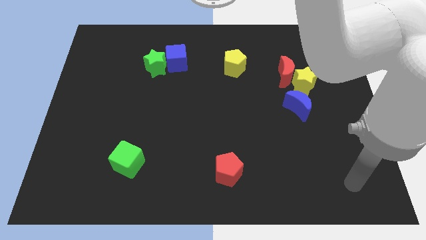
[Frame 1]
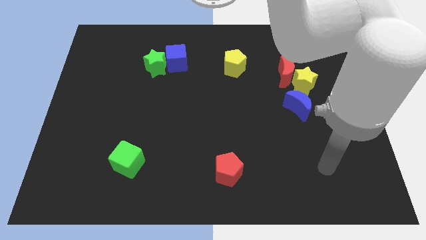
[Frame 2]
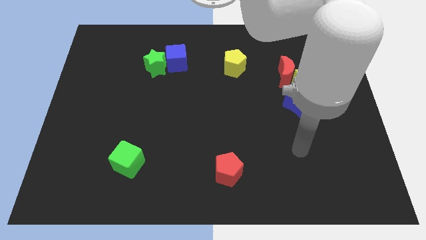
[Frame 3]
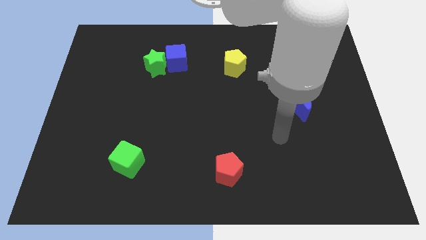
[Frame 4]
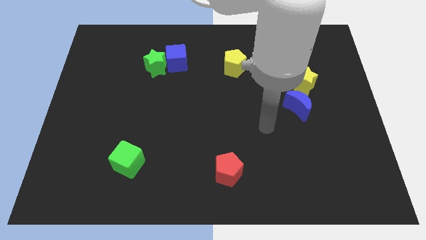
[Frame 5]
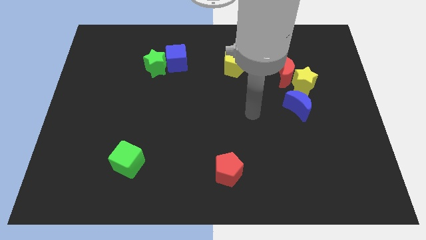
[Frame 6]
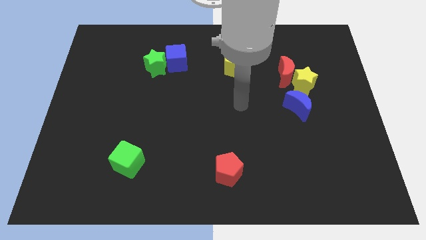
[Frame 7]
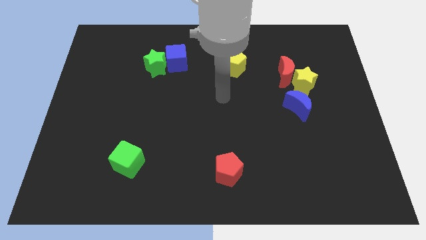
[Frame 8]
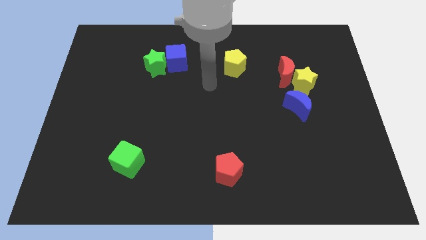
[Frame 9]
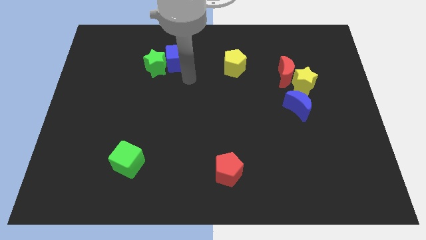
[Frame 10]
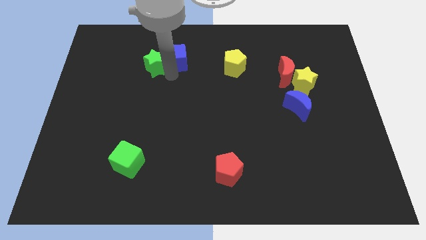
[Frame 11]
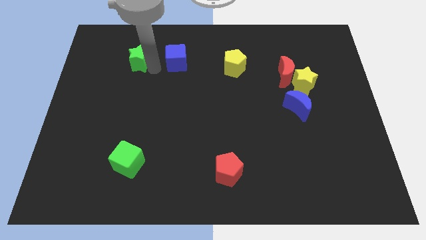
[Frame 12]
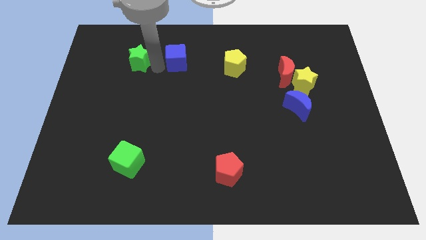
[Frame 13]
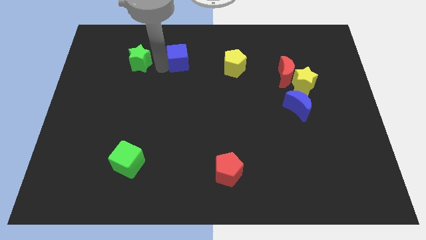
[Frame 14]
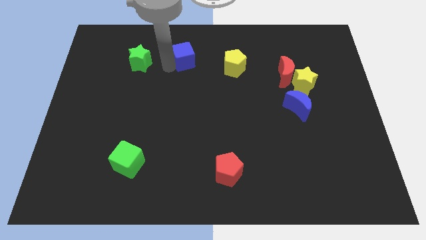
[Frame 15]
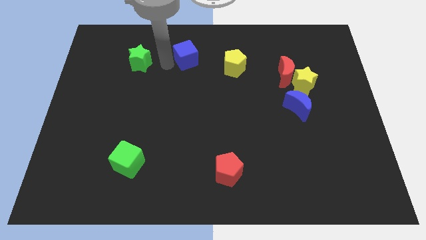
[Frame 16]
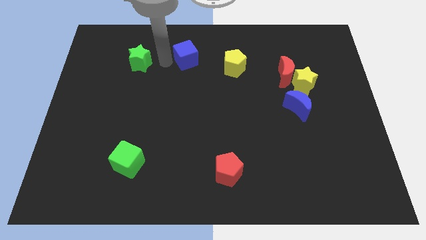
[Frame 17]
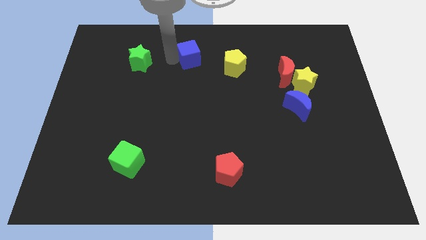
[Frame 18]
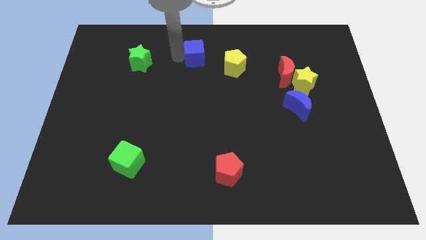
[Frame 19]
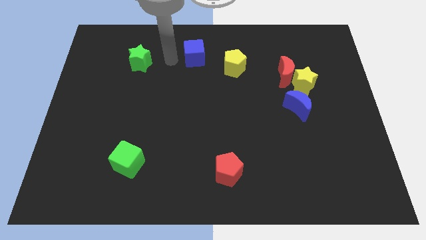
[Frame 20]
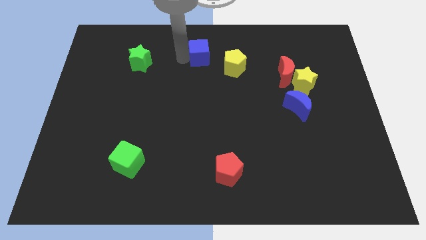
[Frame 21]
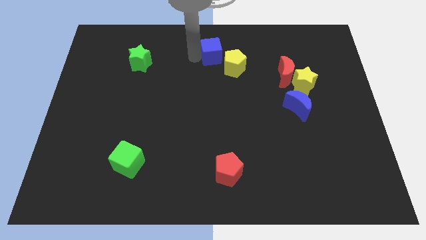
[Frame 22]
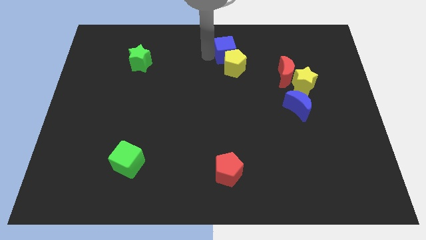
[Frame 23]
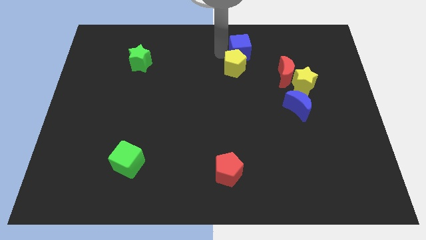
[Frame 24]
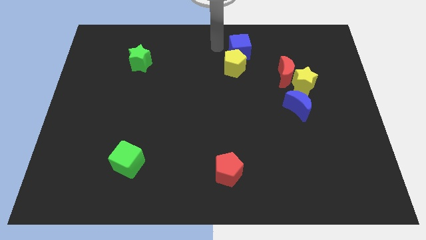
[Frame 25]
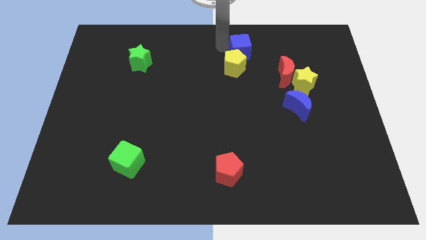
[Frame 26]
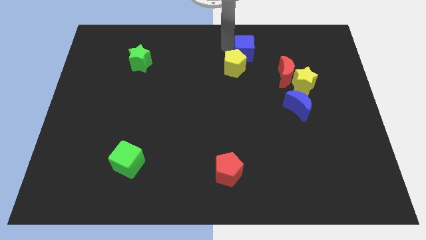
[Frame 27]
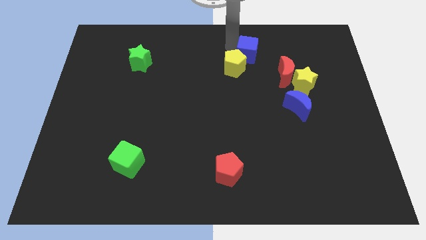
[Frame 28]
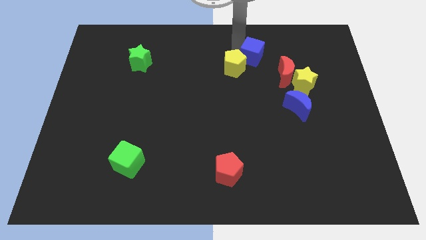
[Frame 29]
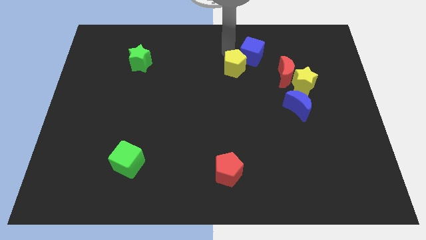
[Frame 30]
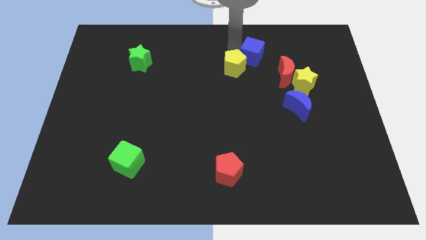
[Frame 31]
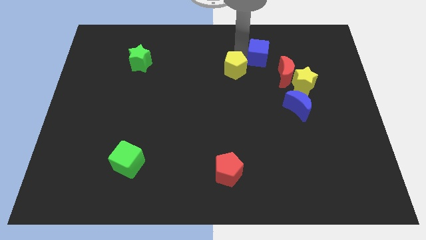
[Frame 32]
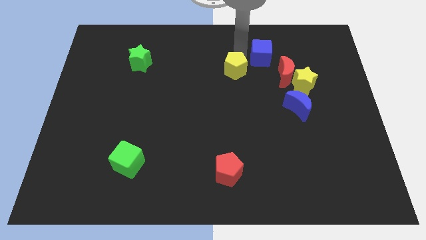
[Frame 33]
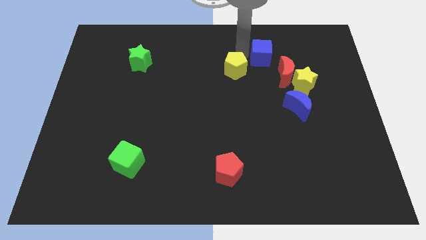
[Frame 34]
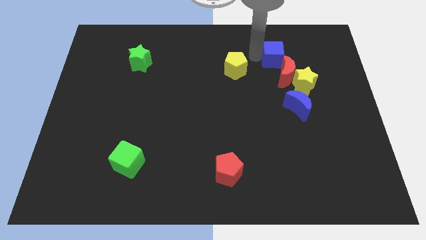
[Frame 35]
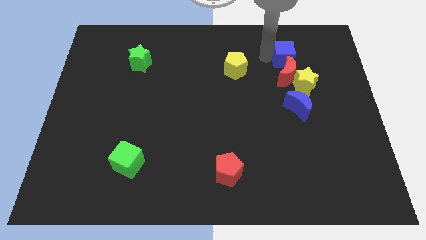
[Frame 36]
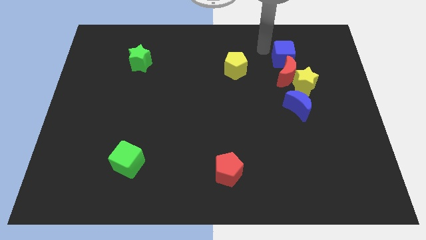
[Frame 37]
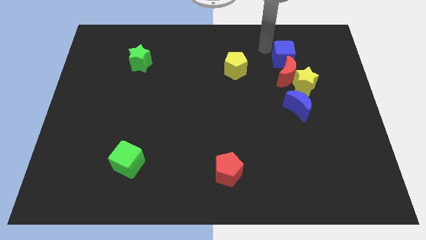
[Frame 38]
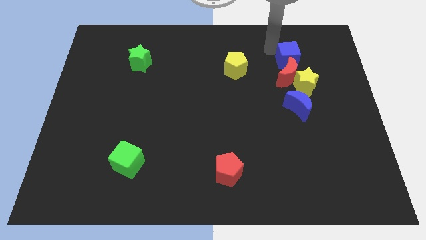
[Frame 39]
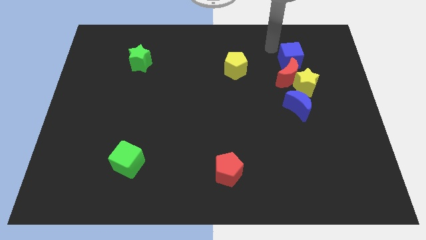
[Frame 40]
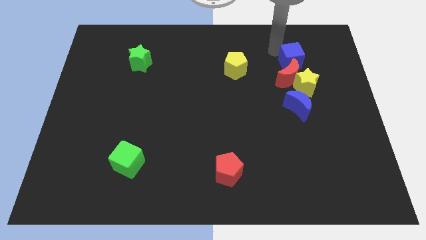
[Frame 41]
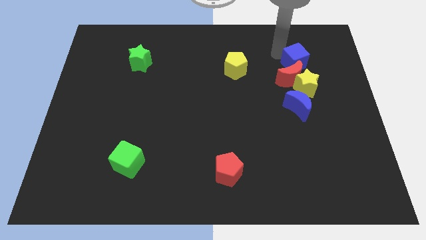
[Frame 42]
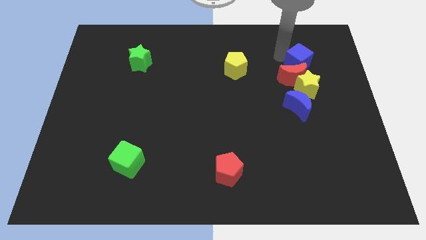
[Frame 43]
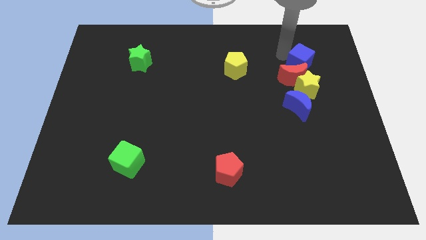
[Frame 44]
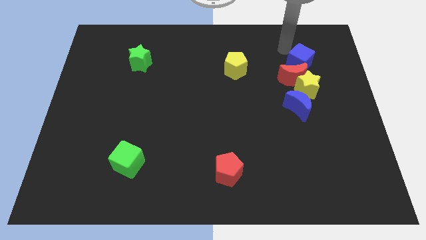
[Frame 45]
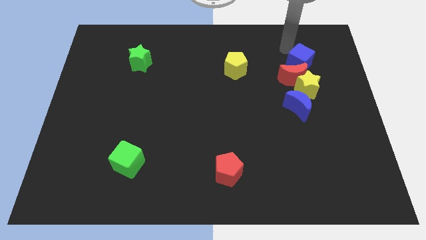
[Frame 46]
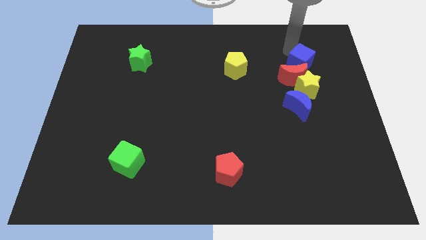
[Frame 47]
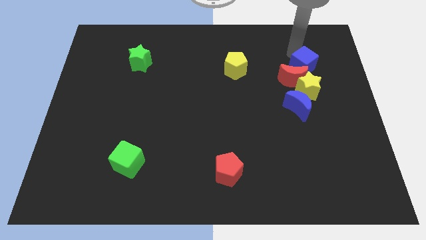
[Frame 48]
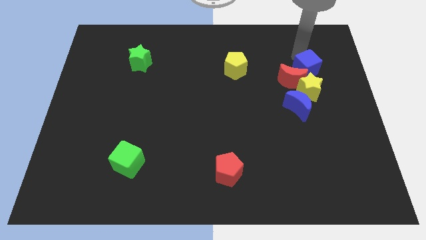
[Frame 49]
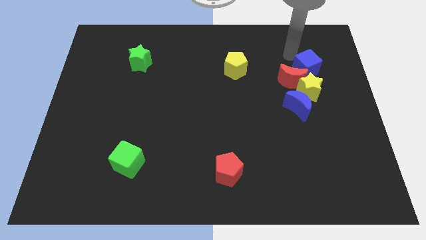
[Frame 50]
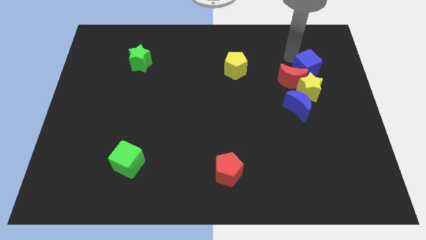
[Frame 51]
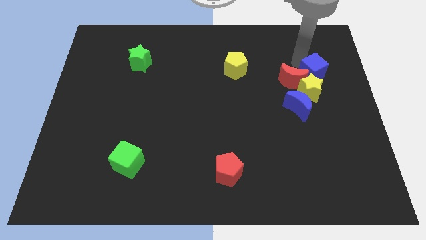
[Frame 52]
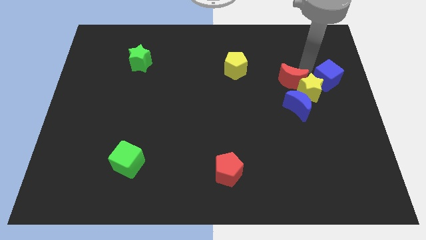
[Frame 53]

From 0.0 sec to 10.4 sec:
slide the blue cube to the right side
